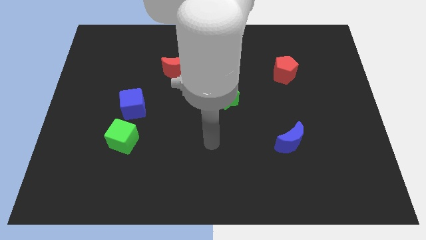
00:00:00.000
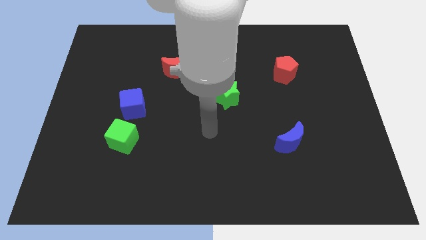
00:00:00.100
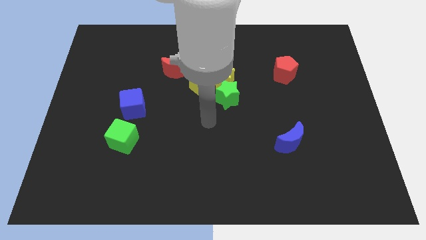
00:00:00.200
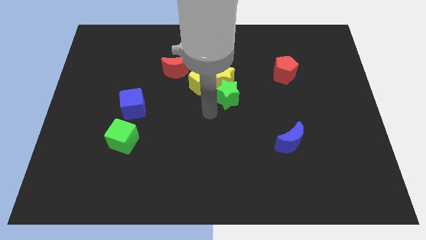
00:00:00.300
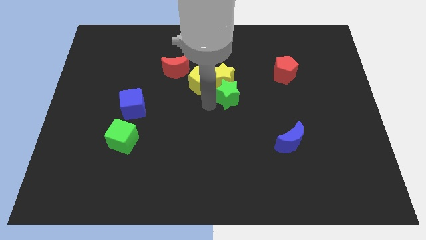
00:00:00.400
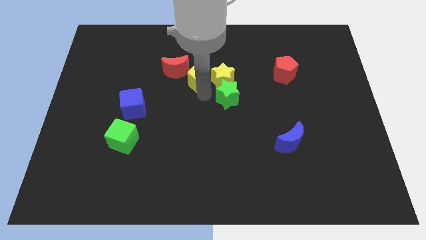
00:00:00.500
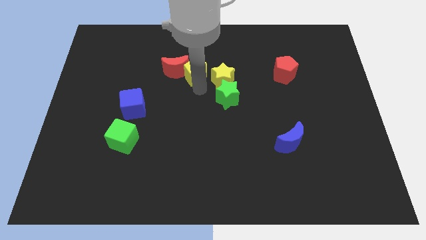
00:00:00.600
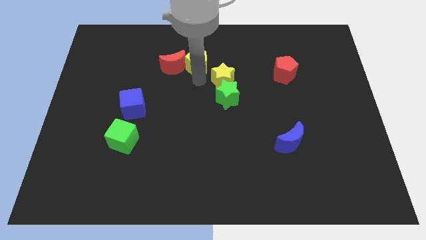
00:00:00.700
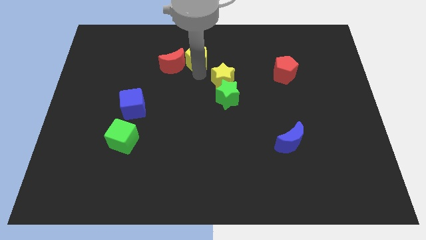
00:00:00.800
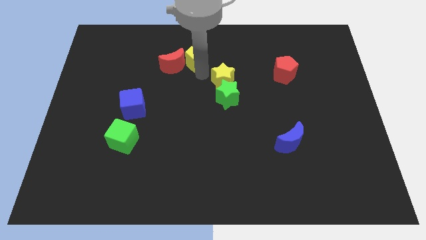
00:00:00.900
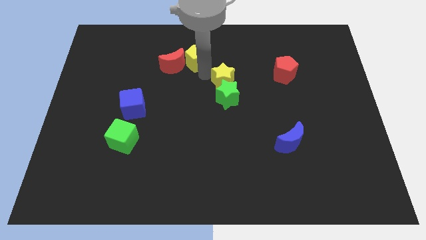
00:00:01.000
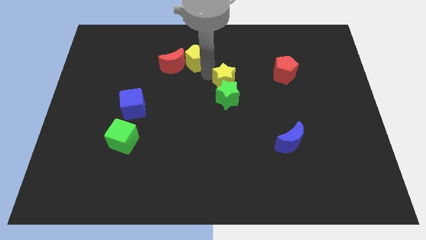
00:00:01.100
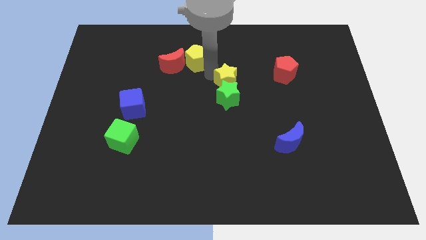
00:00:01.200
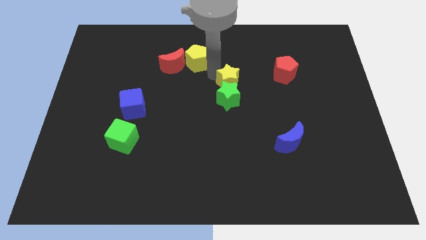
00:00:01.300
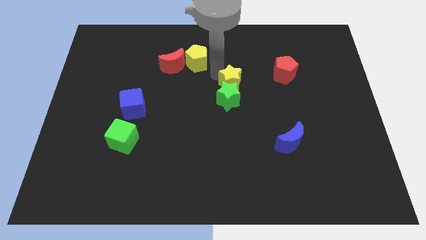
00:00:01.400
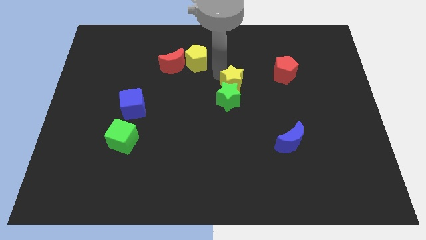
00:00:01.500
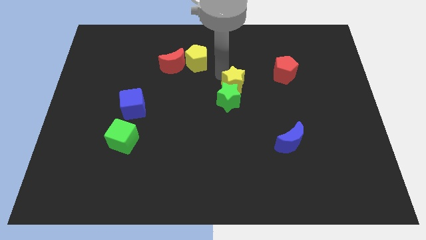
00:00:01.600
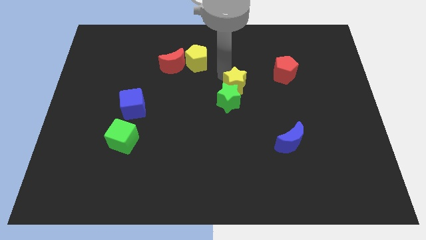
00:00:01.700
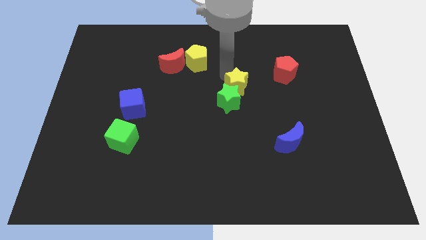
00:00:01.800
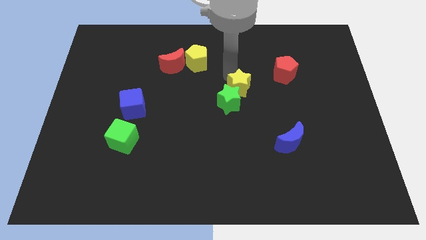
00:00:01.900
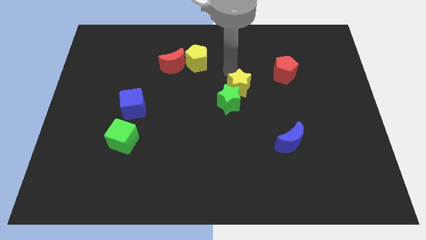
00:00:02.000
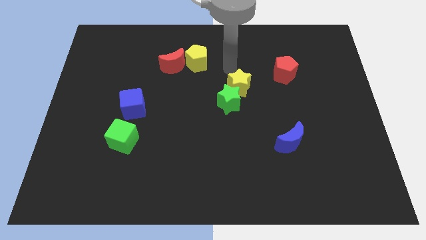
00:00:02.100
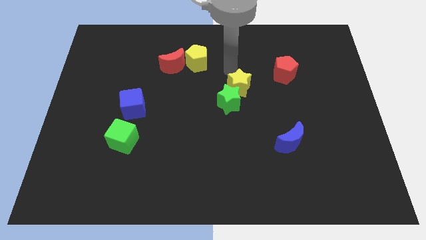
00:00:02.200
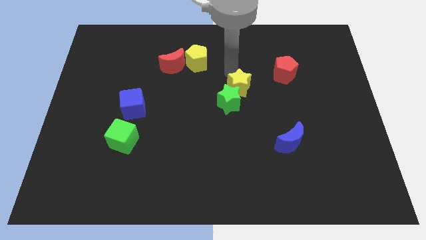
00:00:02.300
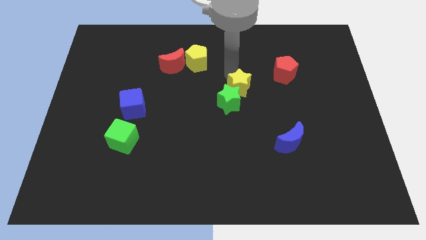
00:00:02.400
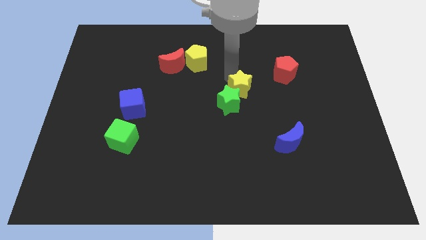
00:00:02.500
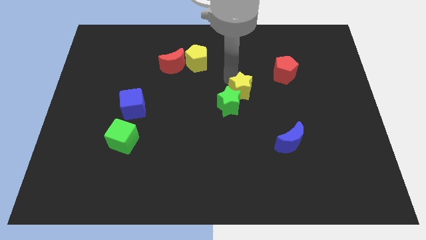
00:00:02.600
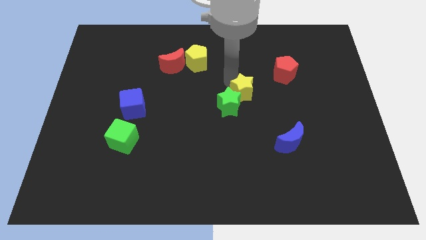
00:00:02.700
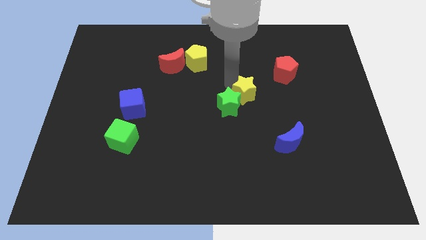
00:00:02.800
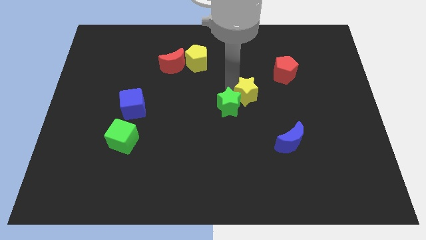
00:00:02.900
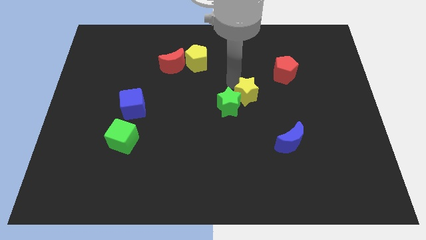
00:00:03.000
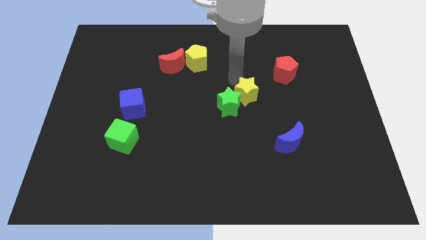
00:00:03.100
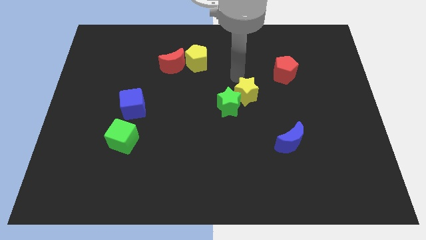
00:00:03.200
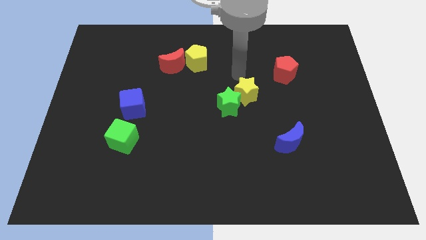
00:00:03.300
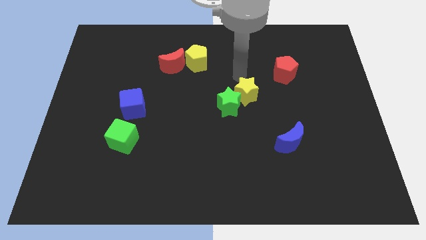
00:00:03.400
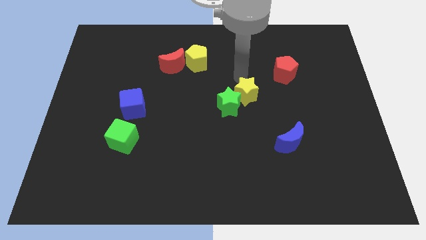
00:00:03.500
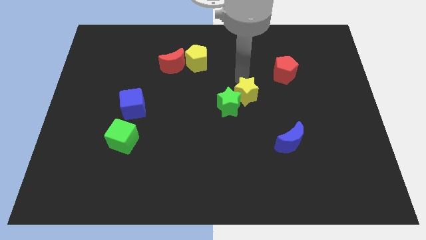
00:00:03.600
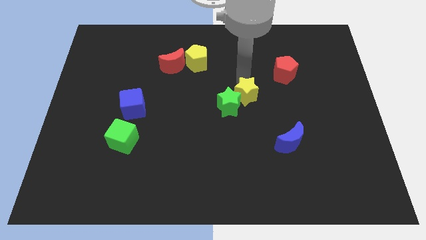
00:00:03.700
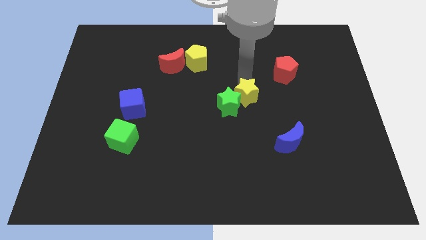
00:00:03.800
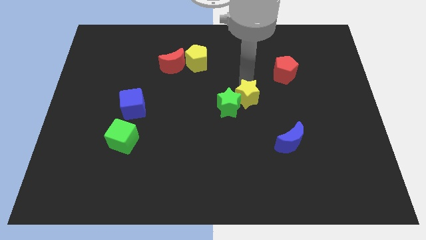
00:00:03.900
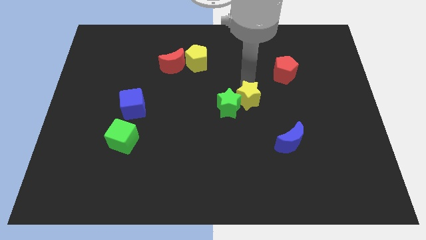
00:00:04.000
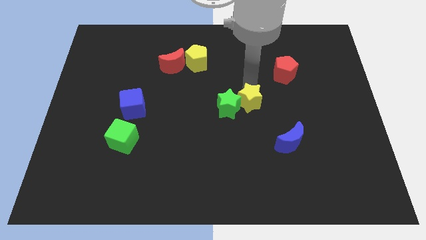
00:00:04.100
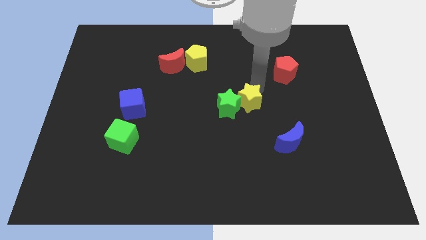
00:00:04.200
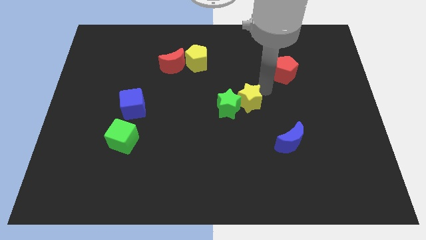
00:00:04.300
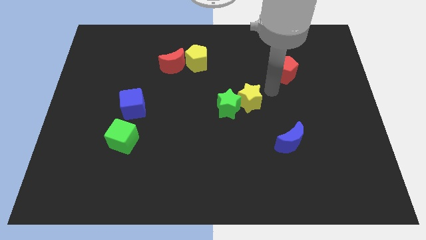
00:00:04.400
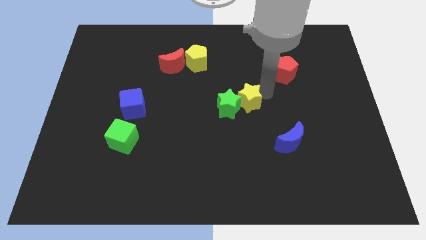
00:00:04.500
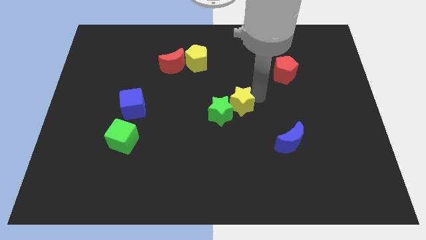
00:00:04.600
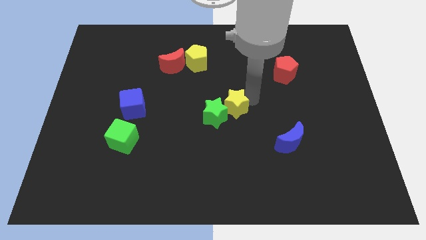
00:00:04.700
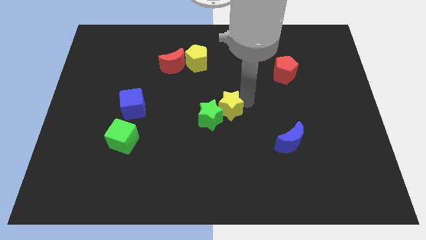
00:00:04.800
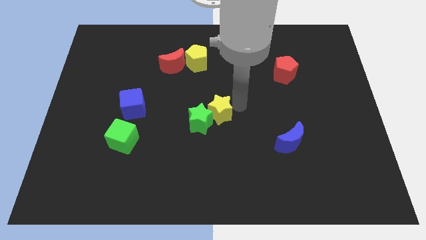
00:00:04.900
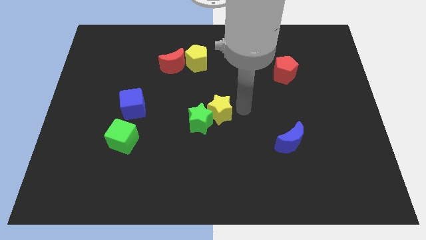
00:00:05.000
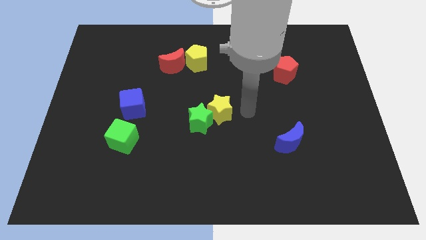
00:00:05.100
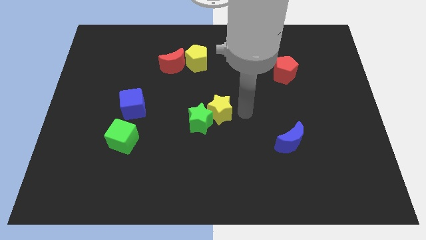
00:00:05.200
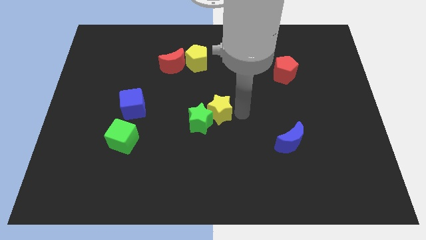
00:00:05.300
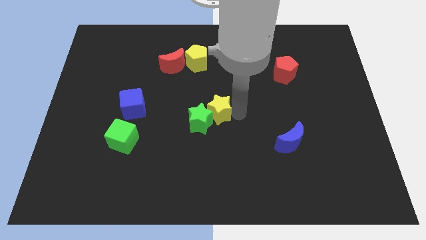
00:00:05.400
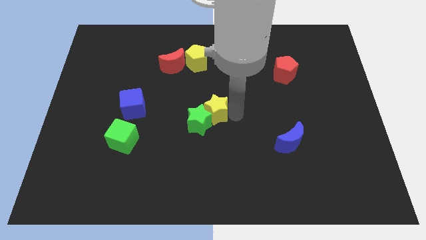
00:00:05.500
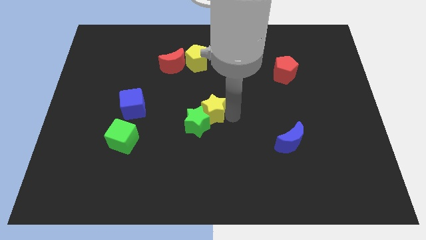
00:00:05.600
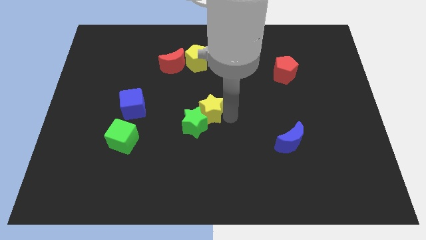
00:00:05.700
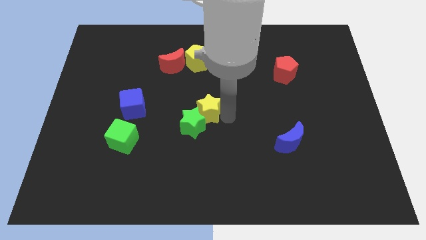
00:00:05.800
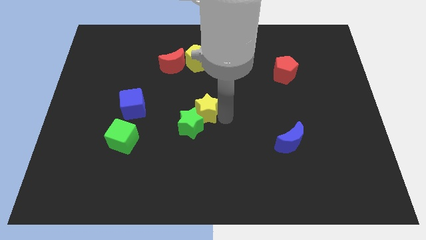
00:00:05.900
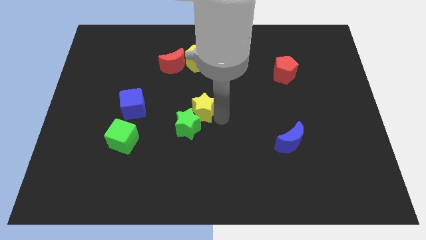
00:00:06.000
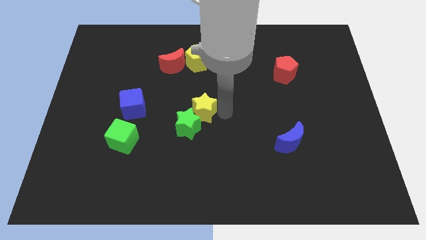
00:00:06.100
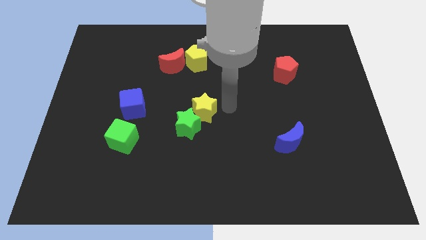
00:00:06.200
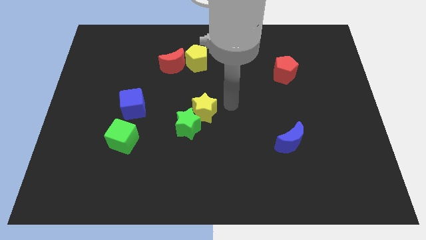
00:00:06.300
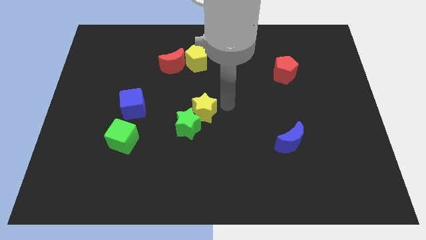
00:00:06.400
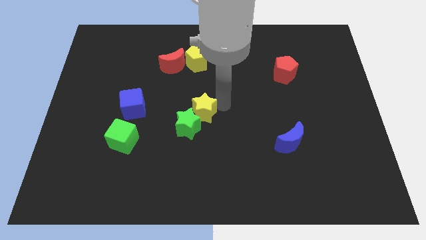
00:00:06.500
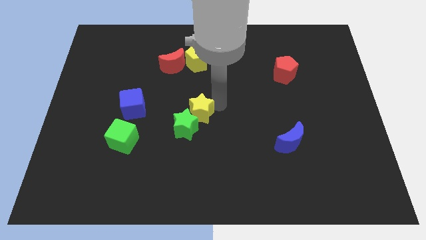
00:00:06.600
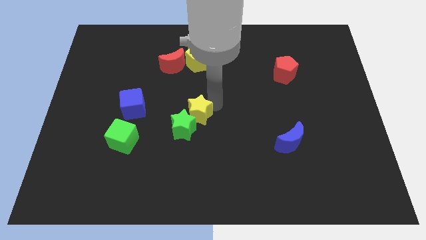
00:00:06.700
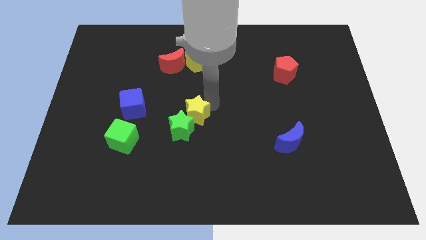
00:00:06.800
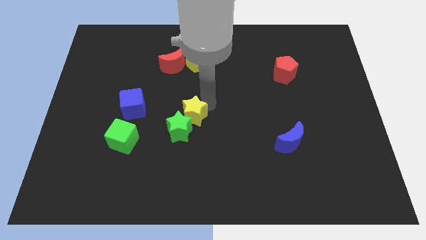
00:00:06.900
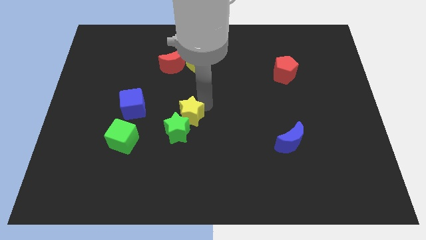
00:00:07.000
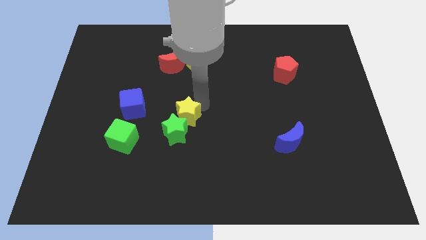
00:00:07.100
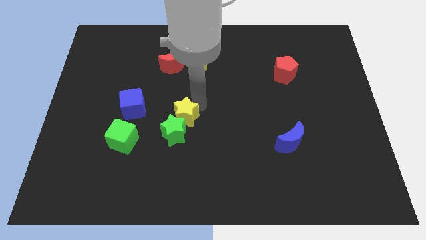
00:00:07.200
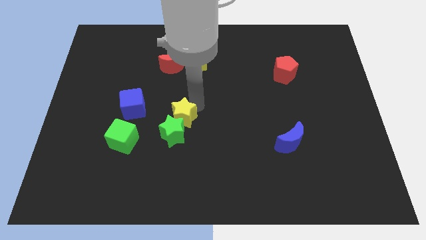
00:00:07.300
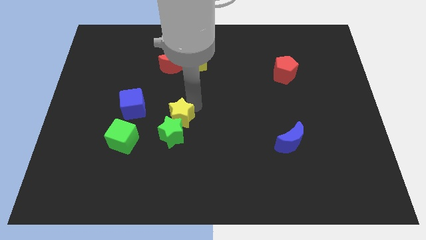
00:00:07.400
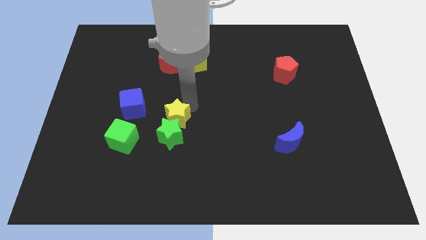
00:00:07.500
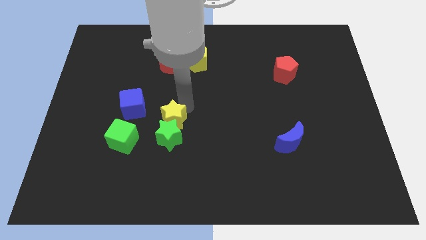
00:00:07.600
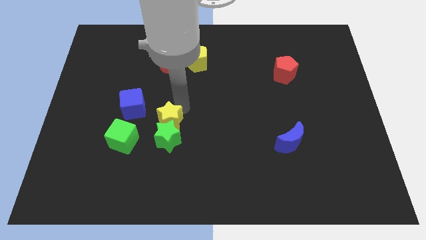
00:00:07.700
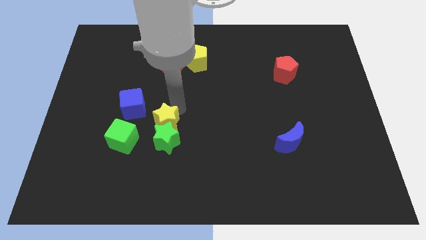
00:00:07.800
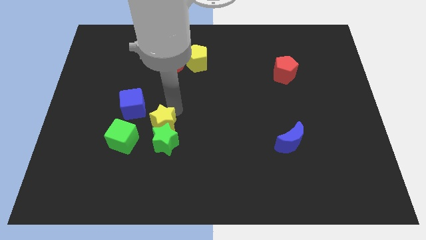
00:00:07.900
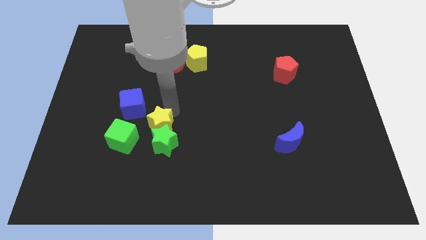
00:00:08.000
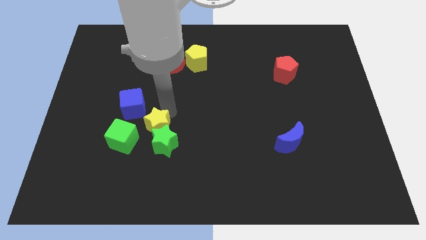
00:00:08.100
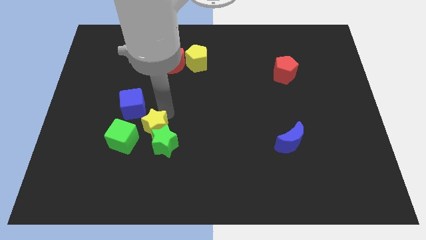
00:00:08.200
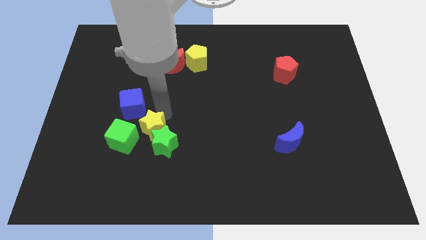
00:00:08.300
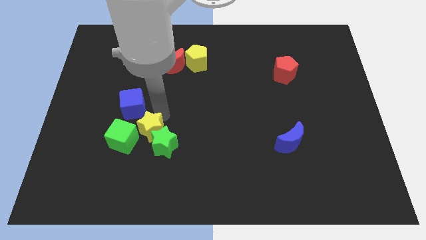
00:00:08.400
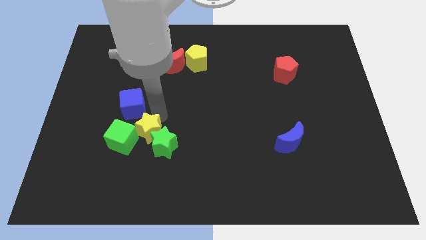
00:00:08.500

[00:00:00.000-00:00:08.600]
slide the yellow star close to the green cube
